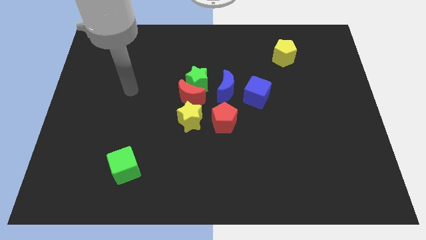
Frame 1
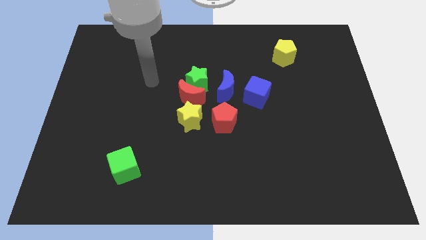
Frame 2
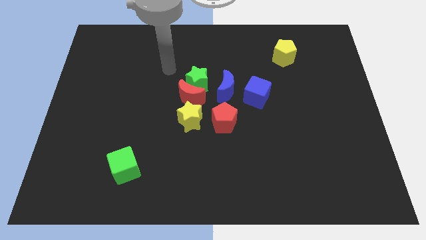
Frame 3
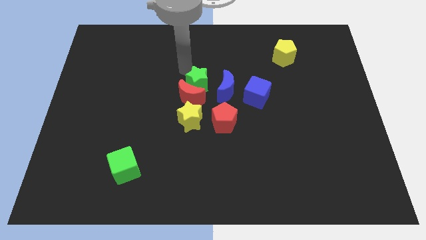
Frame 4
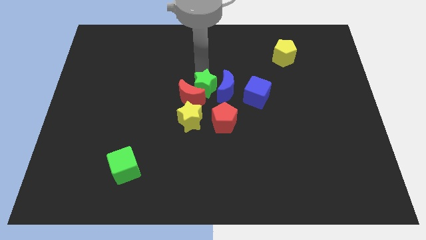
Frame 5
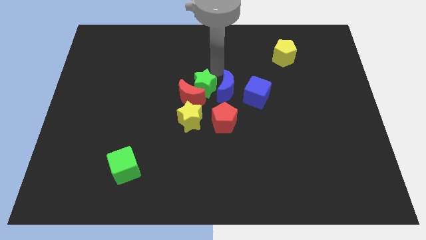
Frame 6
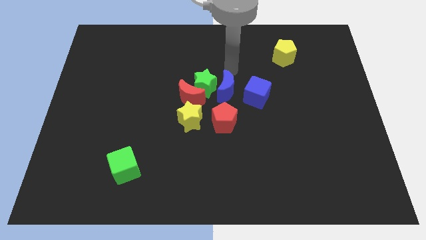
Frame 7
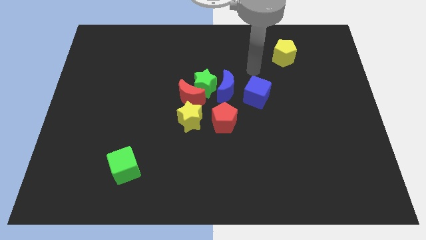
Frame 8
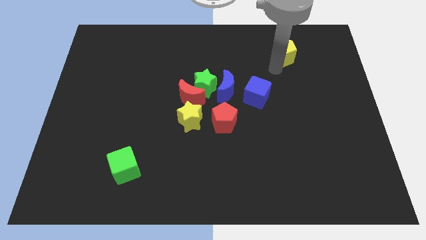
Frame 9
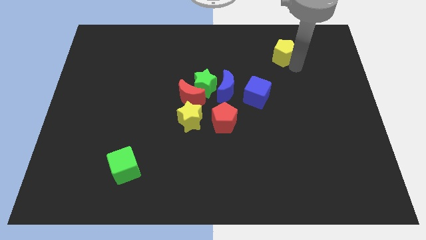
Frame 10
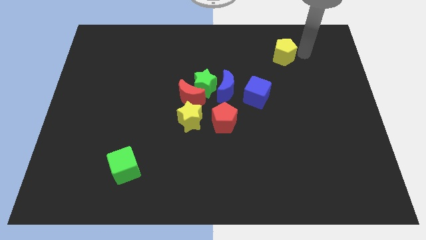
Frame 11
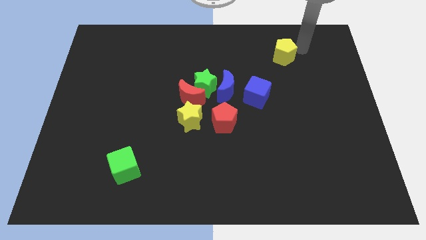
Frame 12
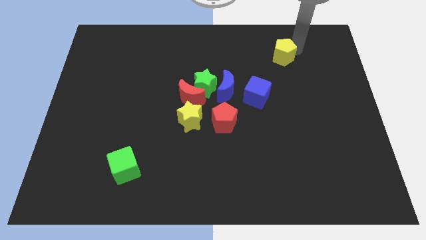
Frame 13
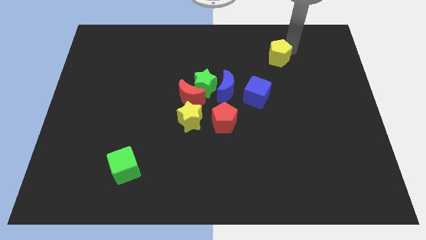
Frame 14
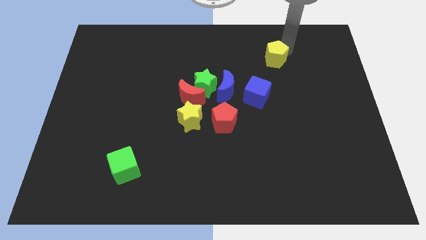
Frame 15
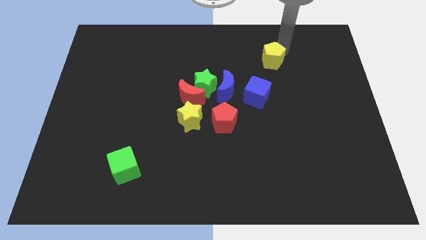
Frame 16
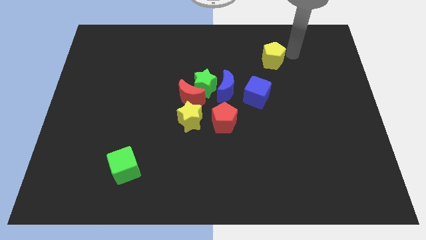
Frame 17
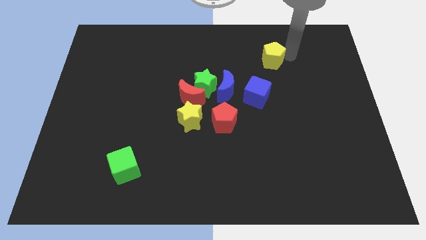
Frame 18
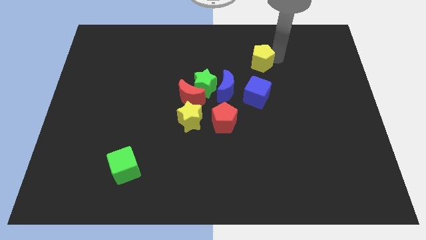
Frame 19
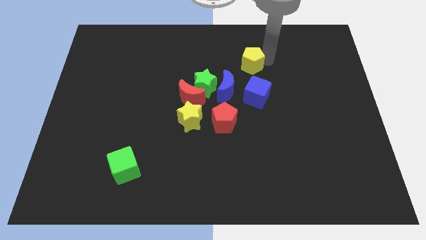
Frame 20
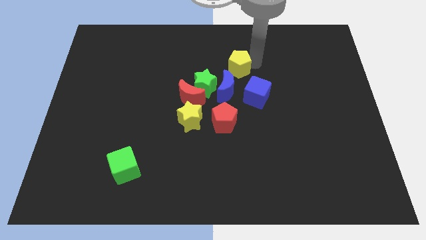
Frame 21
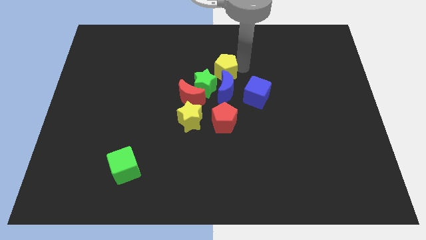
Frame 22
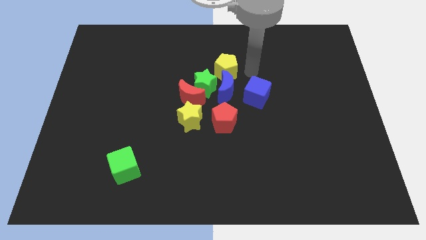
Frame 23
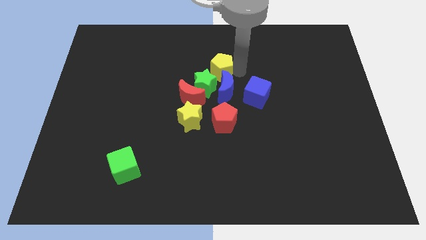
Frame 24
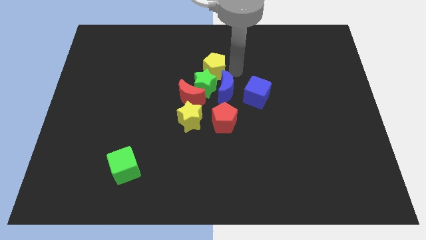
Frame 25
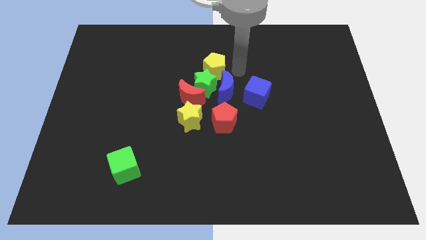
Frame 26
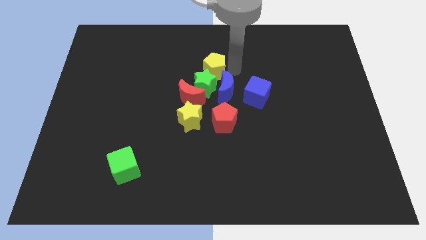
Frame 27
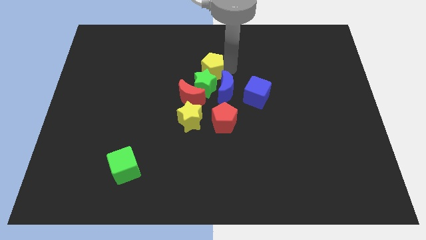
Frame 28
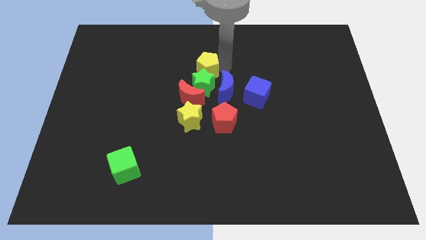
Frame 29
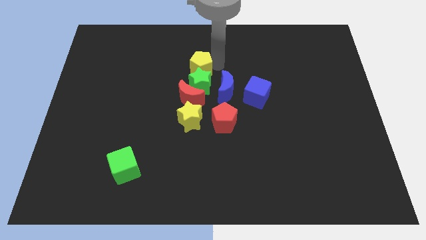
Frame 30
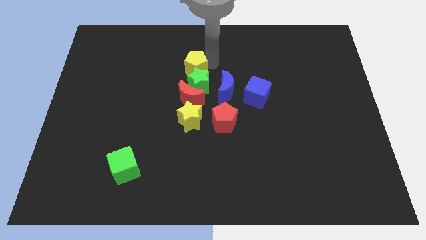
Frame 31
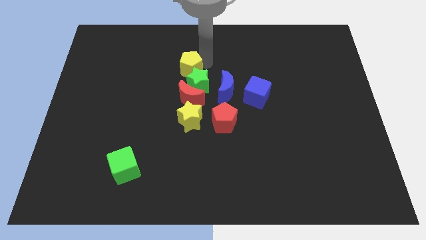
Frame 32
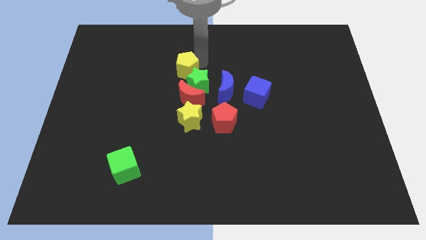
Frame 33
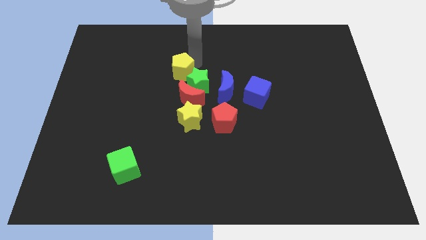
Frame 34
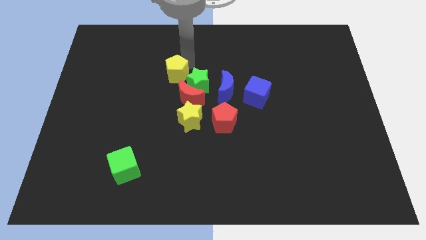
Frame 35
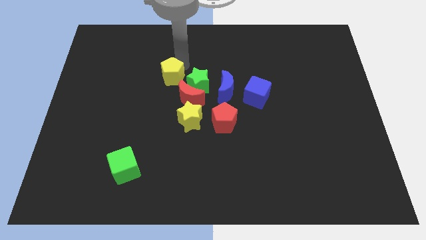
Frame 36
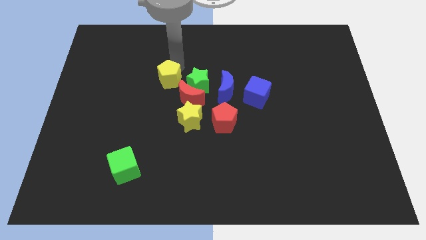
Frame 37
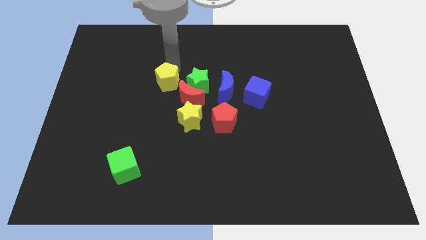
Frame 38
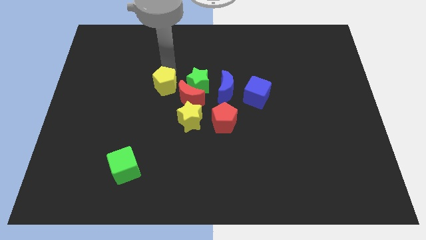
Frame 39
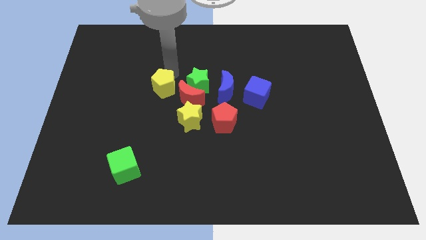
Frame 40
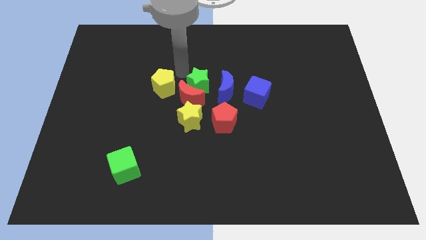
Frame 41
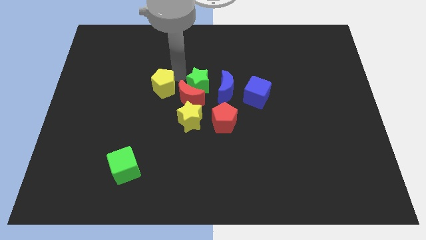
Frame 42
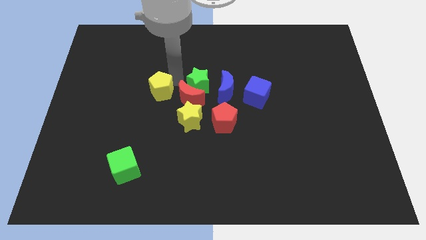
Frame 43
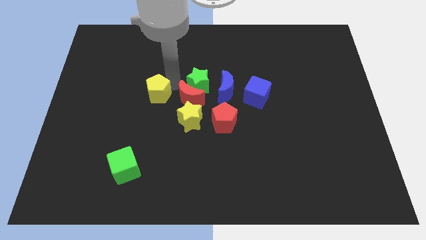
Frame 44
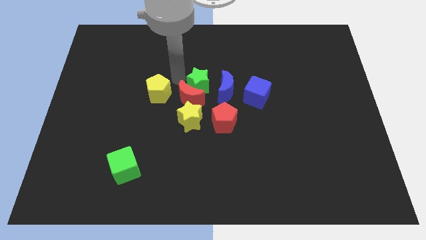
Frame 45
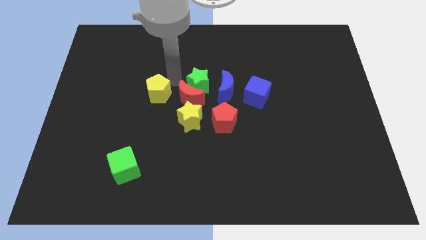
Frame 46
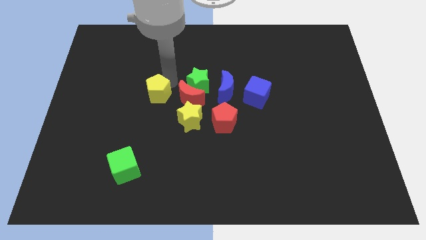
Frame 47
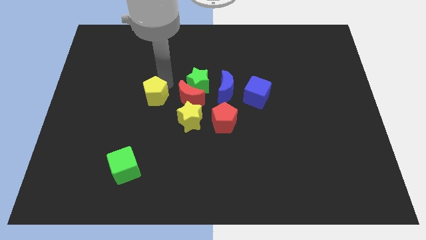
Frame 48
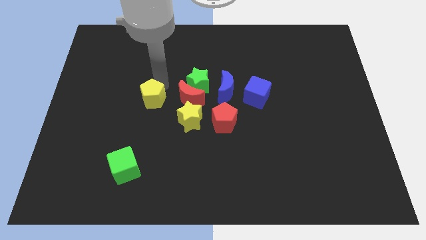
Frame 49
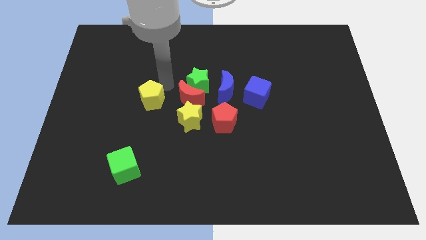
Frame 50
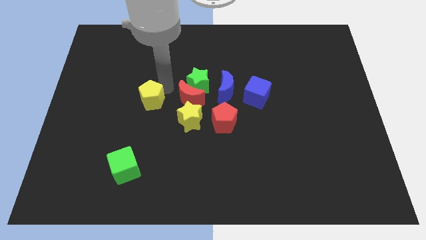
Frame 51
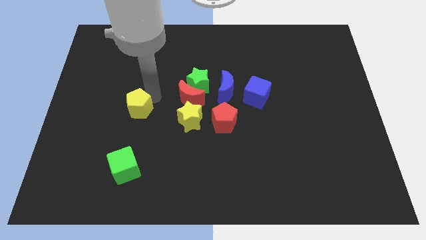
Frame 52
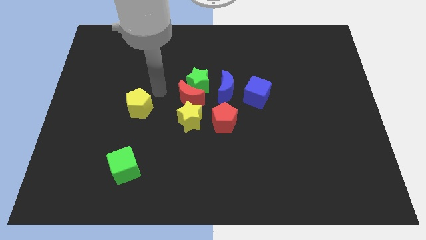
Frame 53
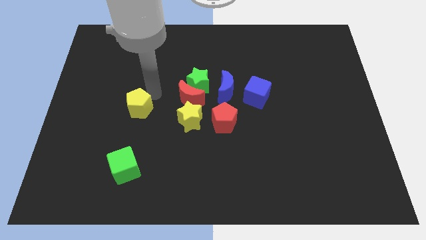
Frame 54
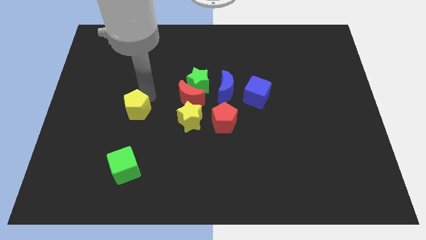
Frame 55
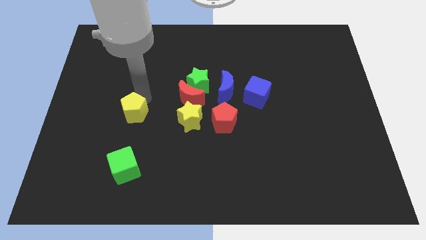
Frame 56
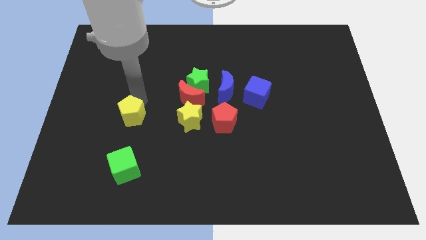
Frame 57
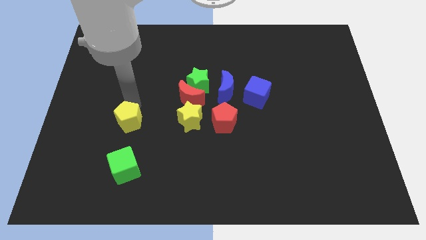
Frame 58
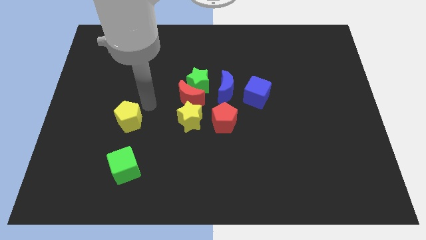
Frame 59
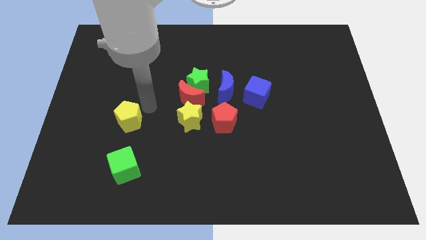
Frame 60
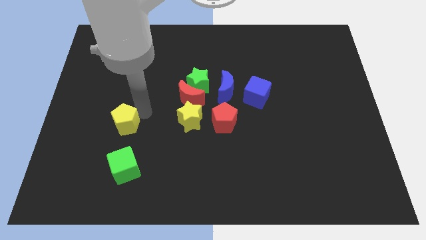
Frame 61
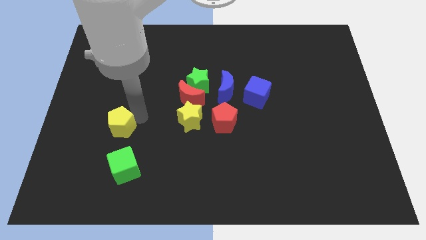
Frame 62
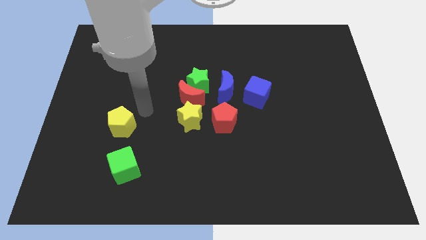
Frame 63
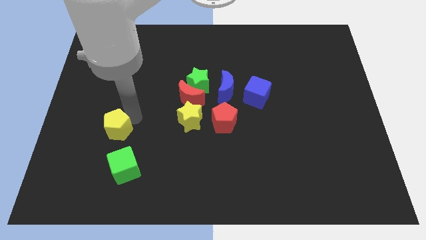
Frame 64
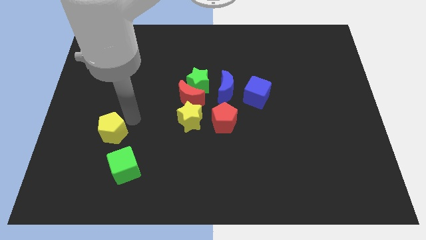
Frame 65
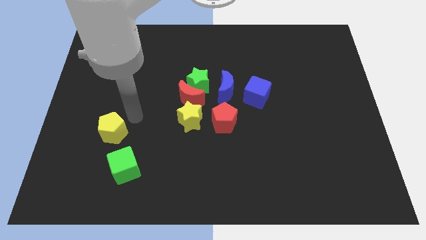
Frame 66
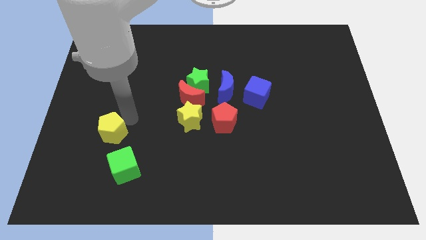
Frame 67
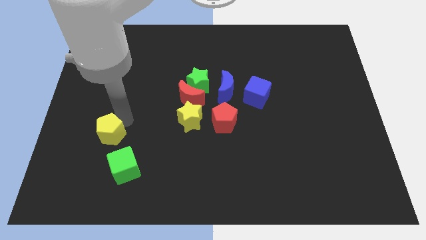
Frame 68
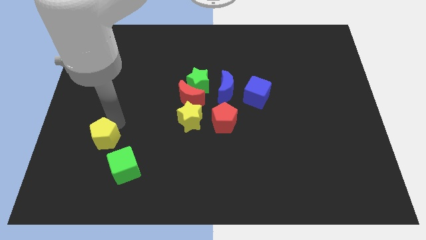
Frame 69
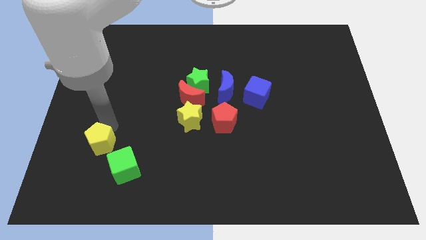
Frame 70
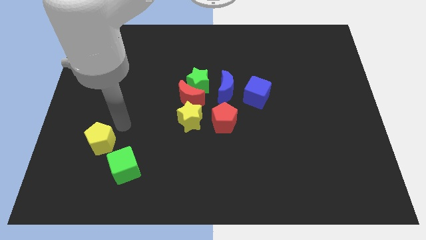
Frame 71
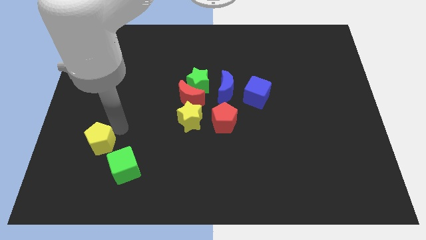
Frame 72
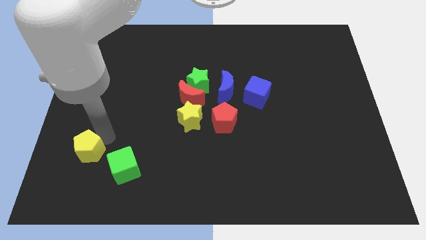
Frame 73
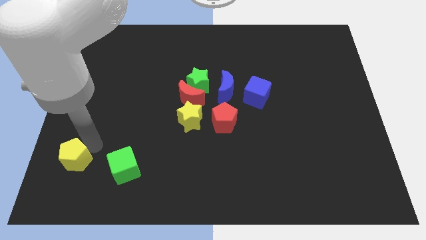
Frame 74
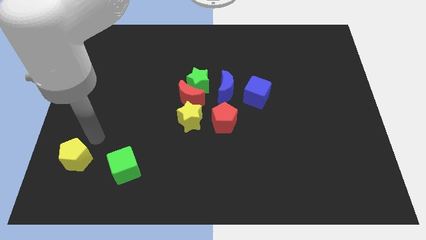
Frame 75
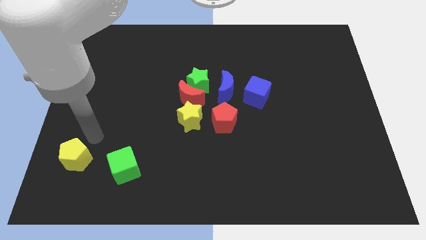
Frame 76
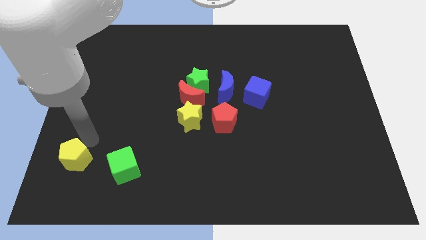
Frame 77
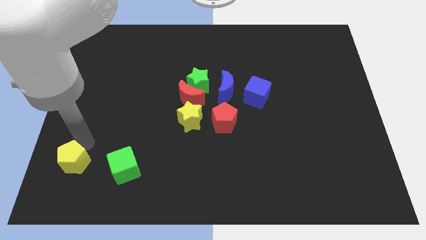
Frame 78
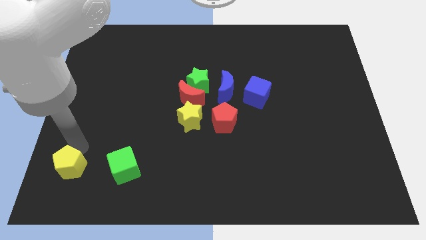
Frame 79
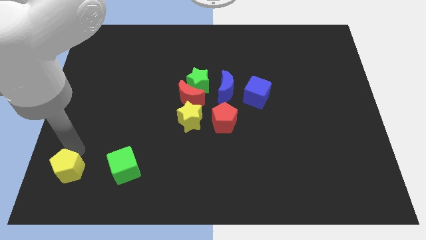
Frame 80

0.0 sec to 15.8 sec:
push the yellow pentagon to the bottom left corner
